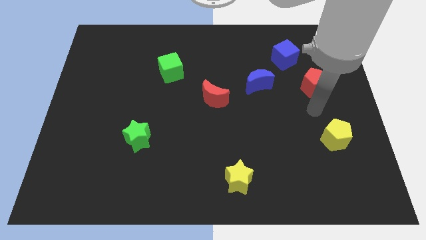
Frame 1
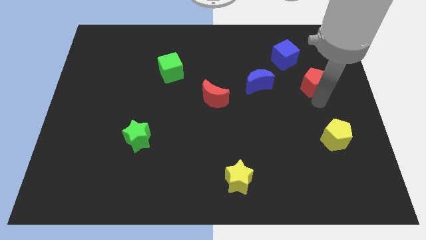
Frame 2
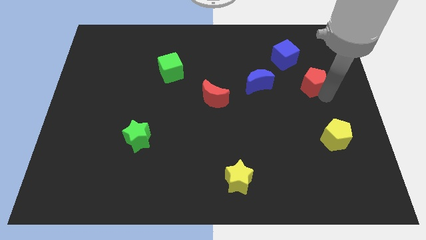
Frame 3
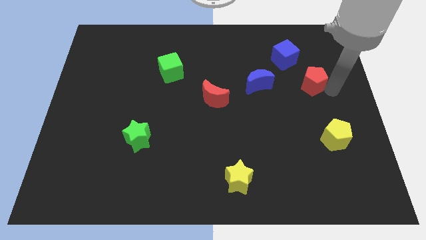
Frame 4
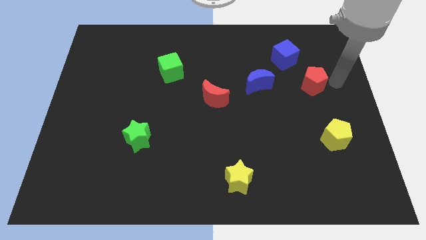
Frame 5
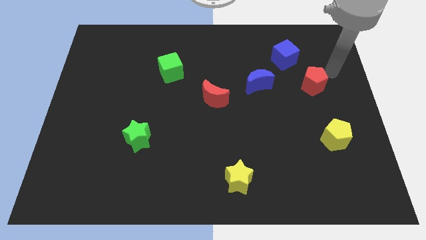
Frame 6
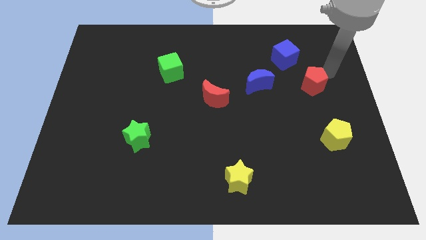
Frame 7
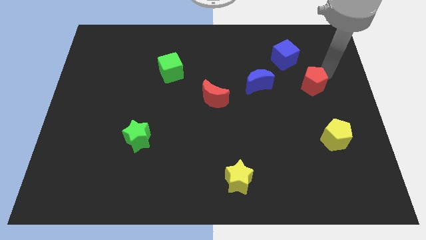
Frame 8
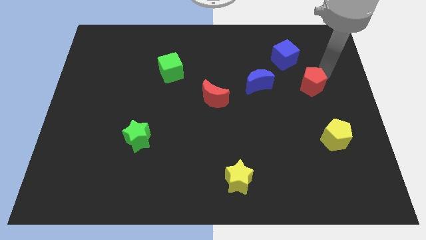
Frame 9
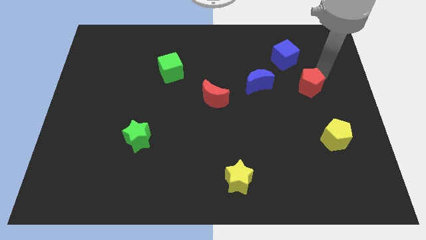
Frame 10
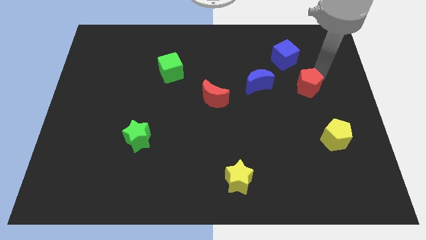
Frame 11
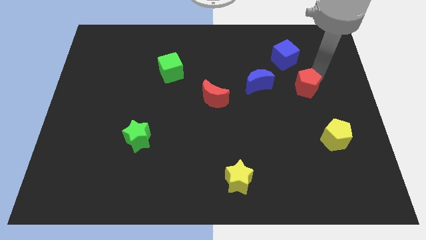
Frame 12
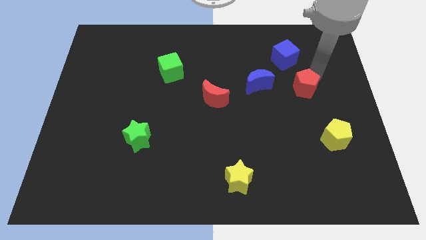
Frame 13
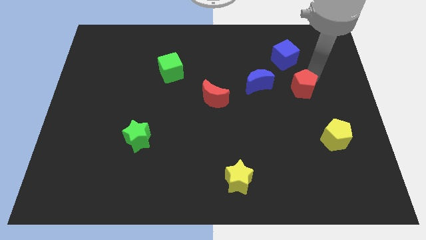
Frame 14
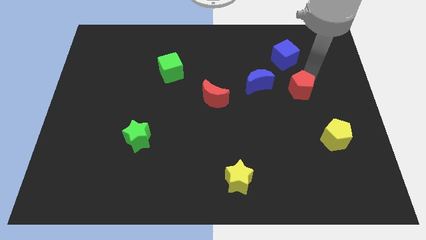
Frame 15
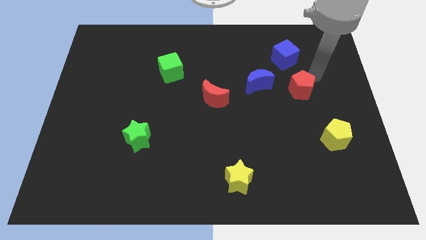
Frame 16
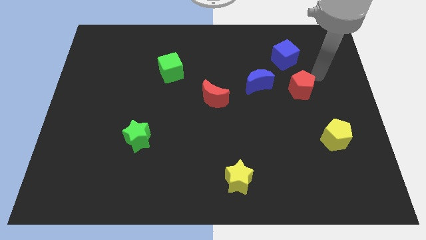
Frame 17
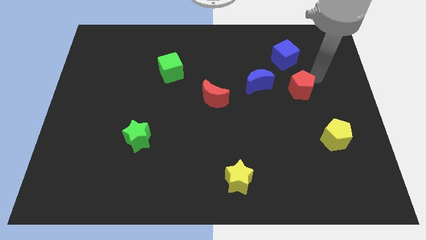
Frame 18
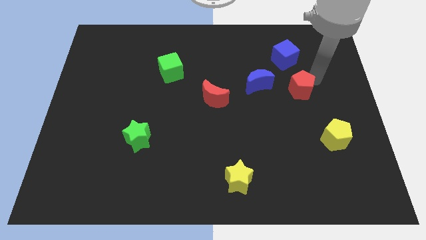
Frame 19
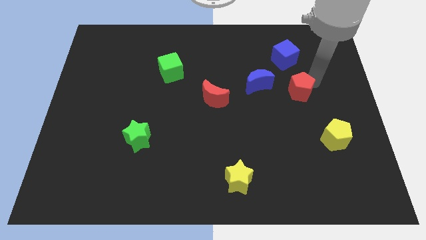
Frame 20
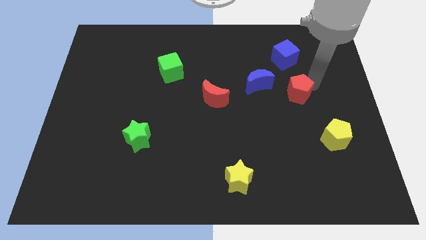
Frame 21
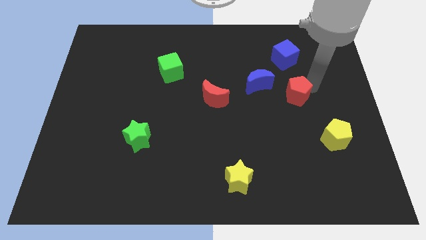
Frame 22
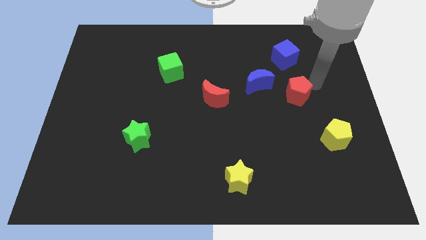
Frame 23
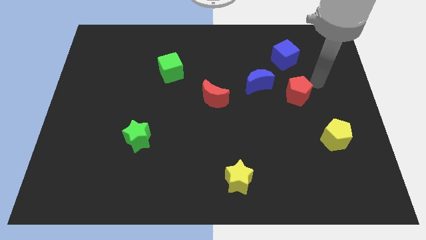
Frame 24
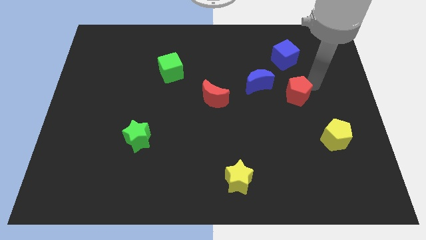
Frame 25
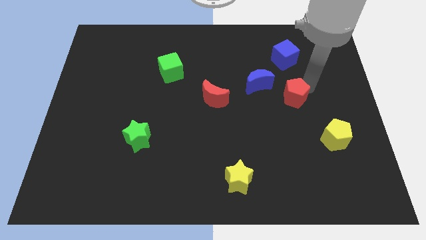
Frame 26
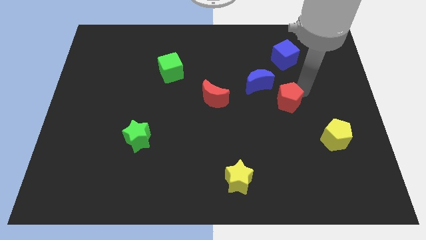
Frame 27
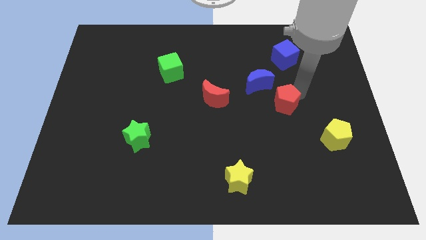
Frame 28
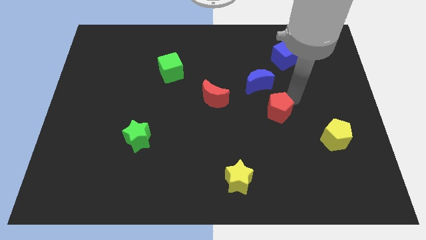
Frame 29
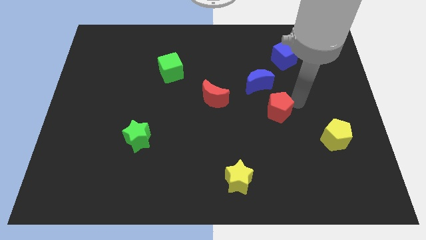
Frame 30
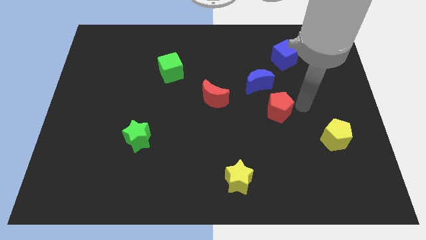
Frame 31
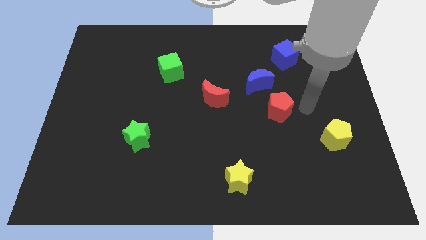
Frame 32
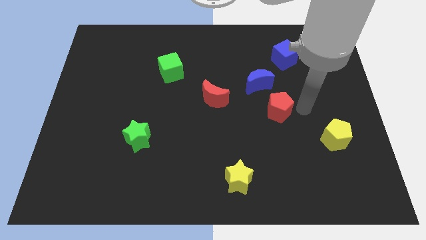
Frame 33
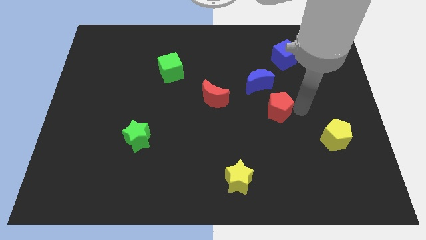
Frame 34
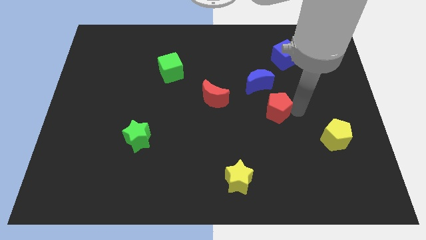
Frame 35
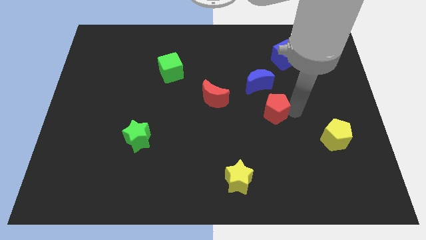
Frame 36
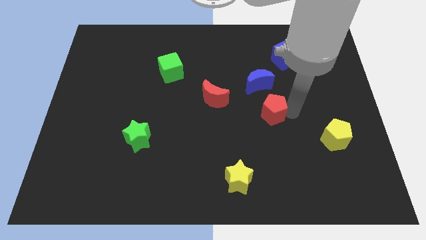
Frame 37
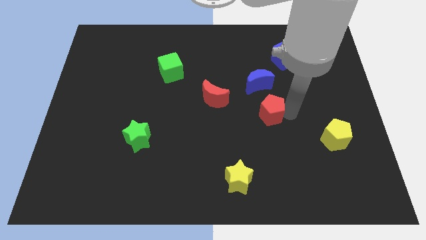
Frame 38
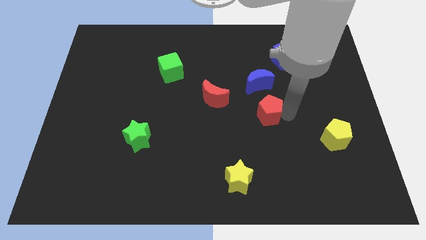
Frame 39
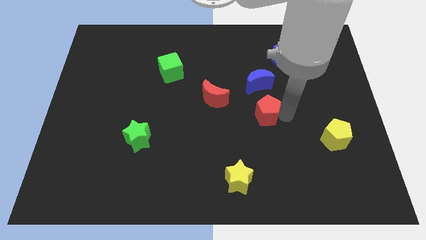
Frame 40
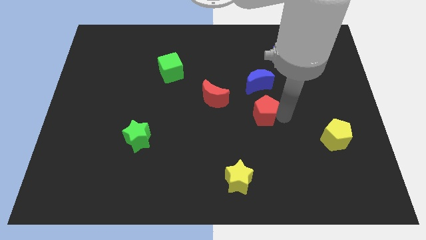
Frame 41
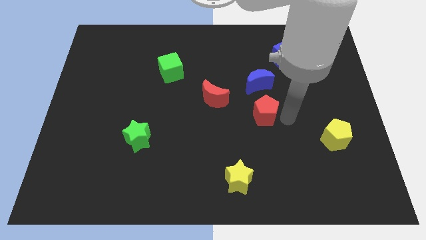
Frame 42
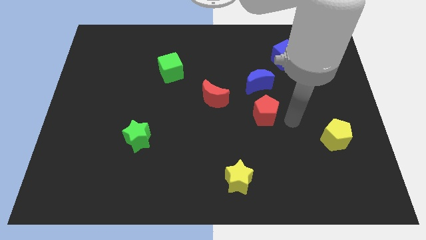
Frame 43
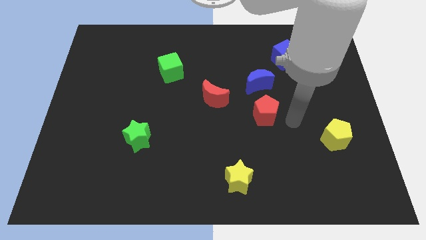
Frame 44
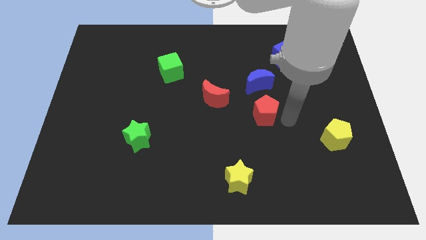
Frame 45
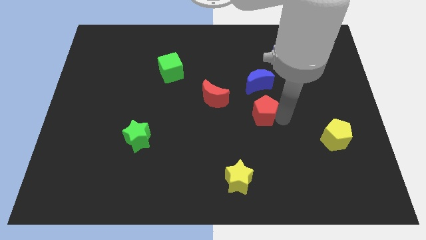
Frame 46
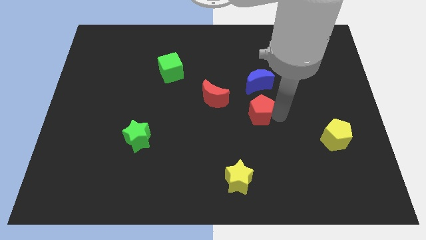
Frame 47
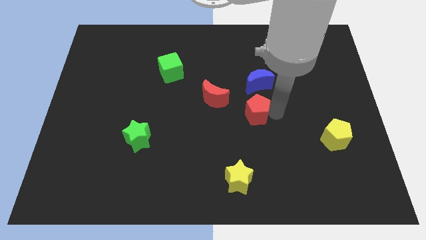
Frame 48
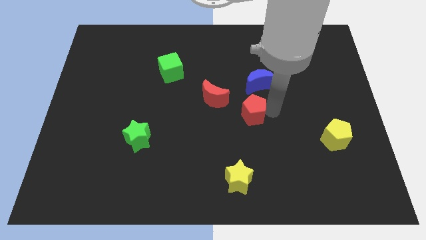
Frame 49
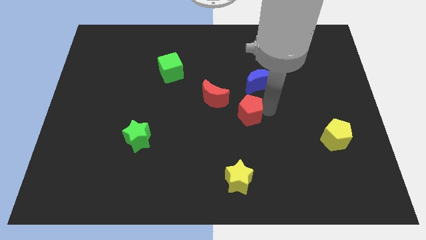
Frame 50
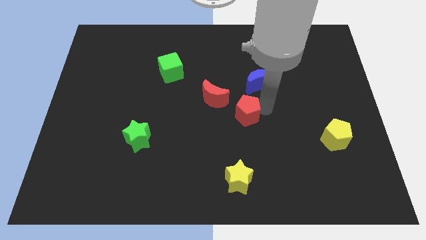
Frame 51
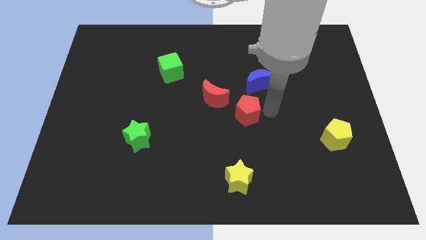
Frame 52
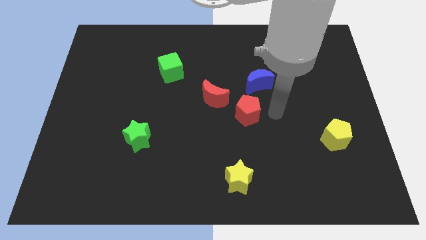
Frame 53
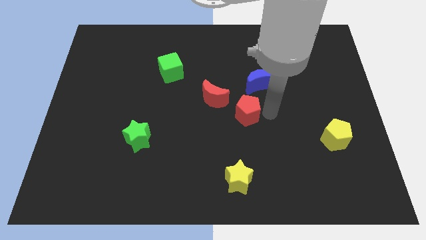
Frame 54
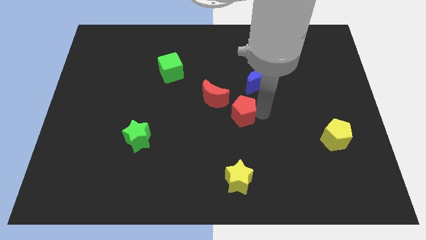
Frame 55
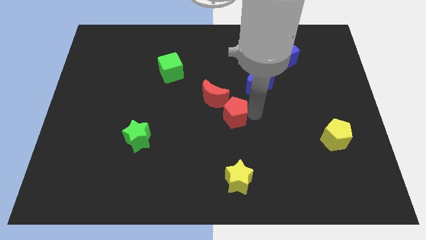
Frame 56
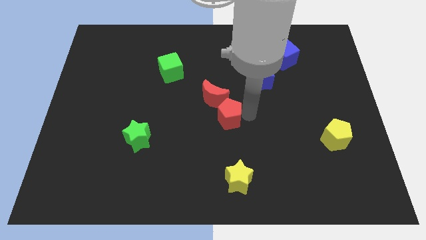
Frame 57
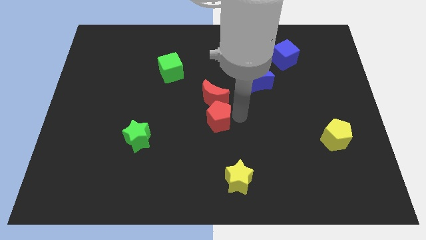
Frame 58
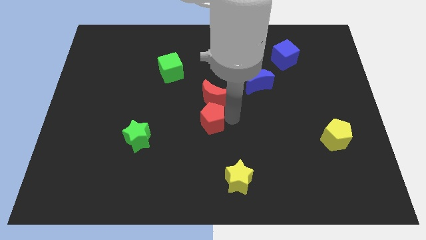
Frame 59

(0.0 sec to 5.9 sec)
put the red pentagon to the bottom left side of the red moon

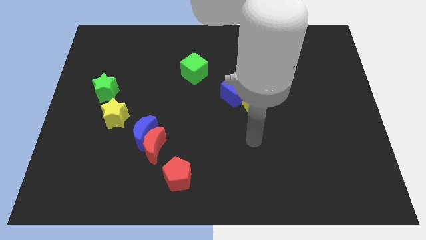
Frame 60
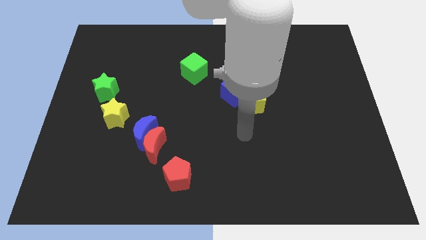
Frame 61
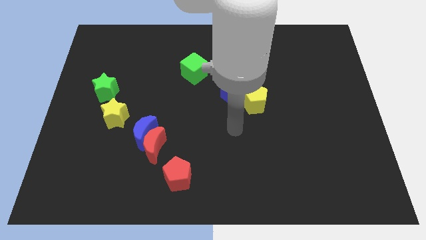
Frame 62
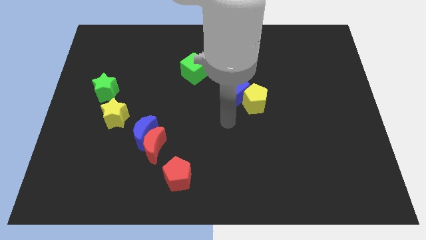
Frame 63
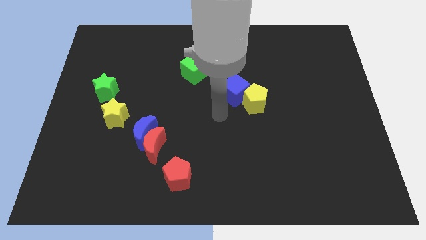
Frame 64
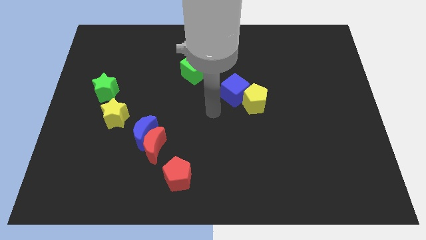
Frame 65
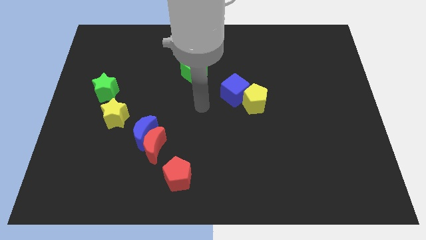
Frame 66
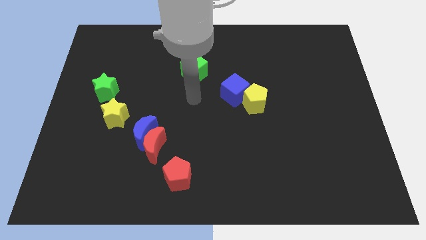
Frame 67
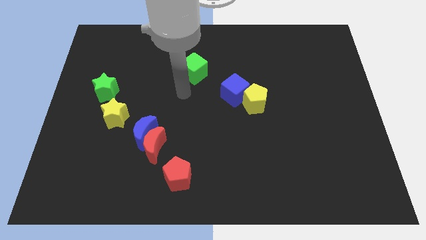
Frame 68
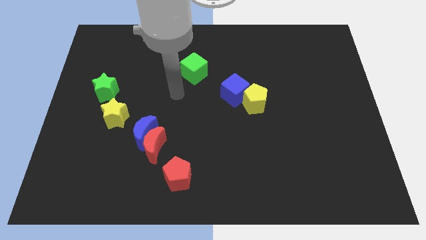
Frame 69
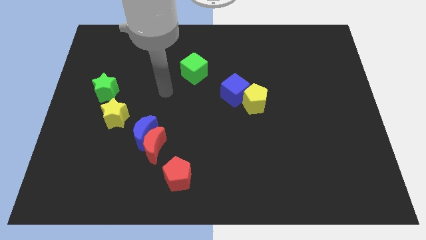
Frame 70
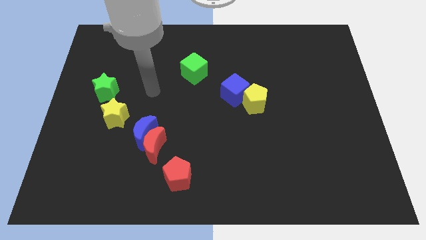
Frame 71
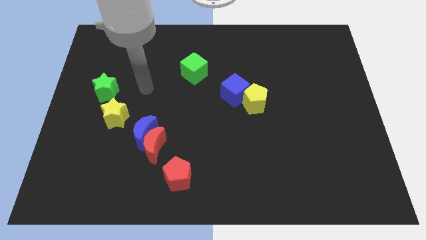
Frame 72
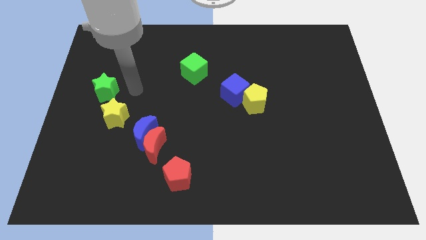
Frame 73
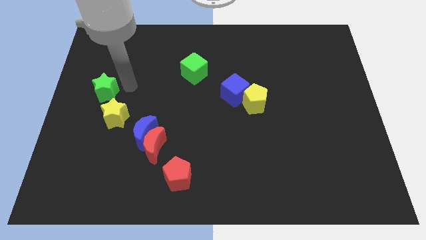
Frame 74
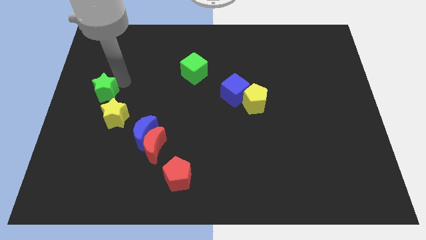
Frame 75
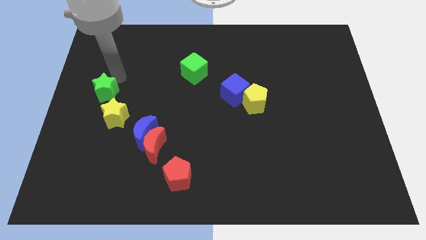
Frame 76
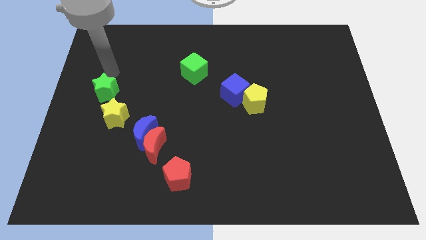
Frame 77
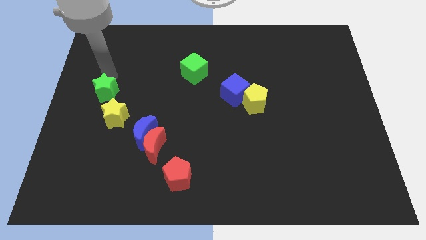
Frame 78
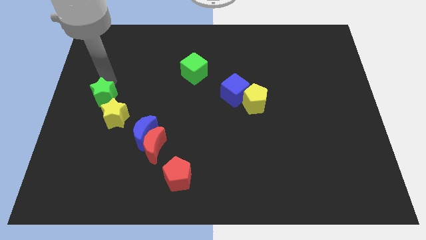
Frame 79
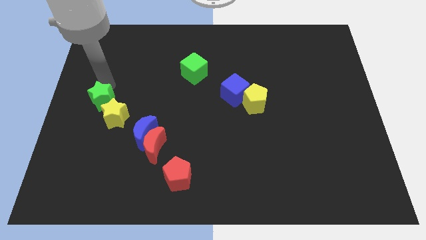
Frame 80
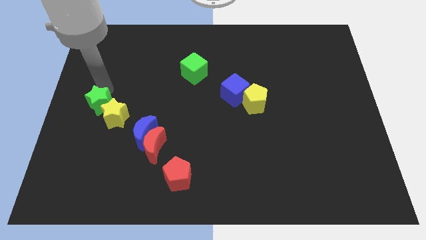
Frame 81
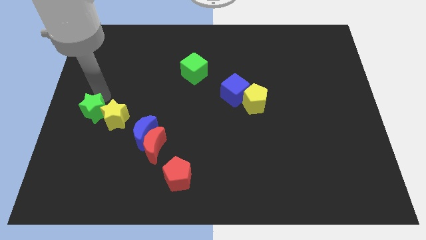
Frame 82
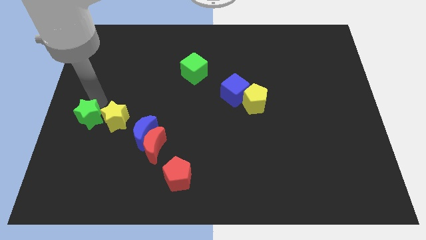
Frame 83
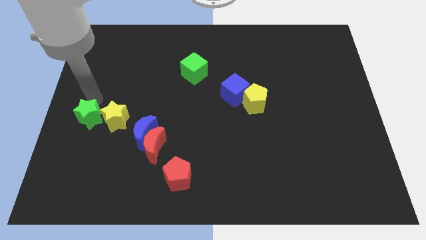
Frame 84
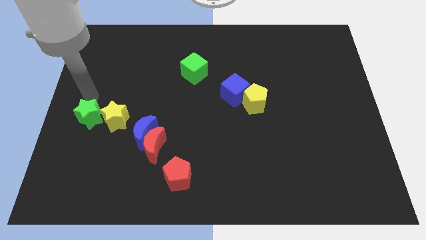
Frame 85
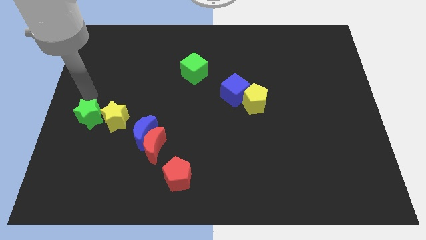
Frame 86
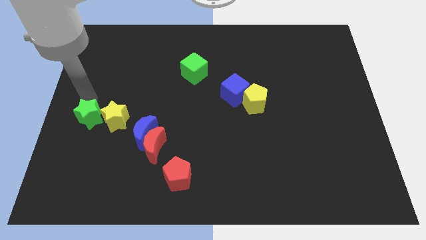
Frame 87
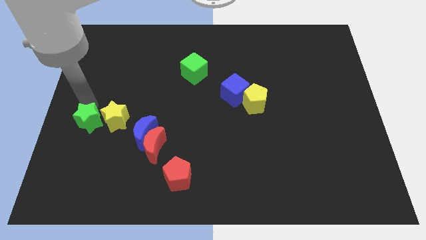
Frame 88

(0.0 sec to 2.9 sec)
push the green star to the bottom left of the yellow star
